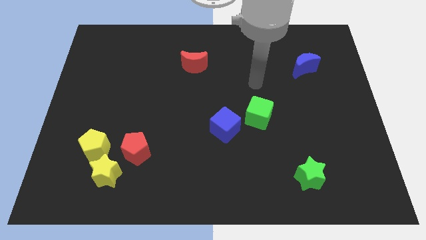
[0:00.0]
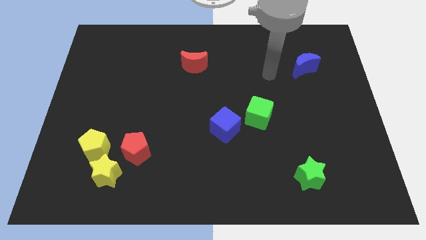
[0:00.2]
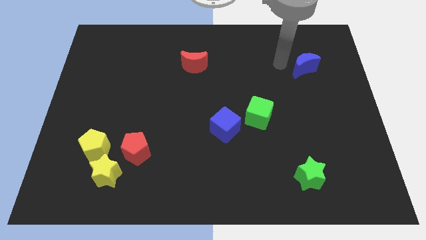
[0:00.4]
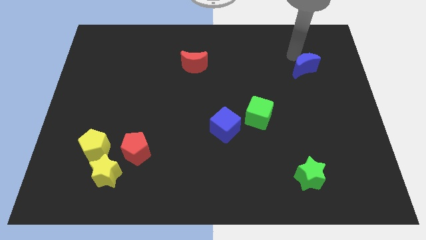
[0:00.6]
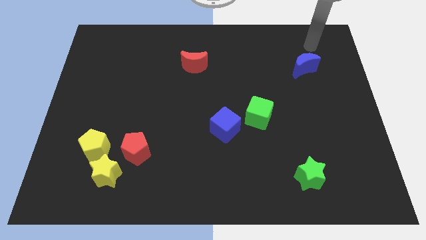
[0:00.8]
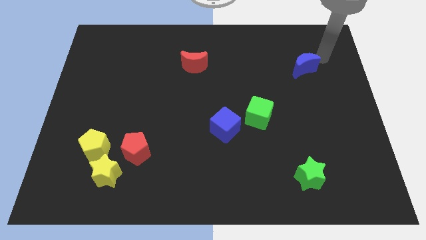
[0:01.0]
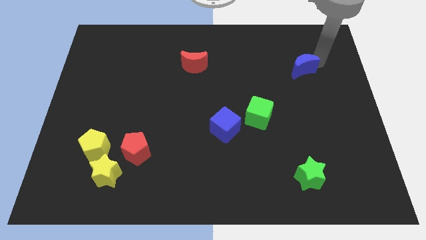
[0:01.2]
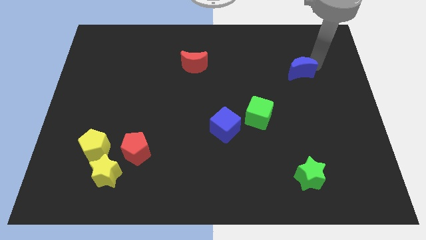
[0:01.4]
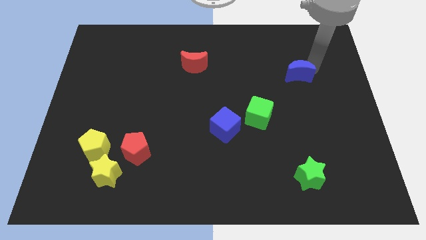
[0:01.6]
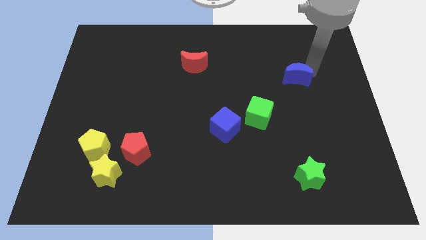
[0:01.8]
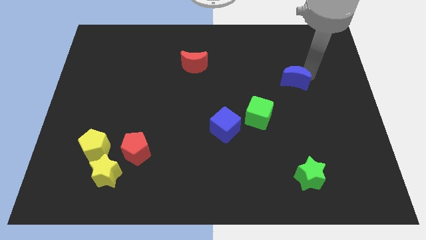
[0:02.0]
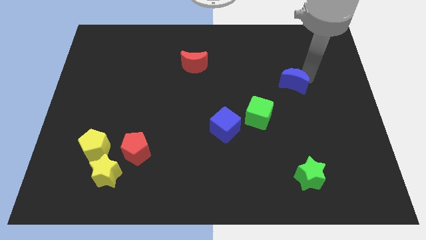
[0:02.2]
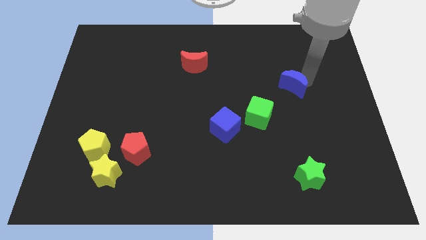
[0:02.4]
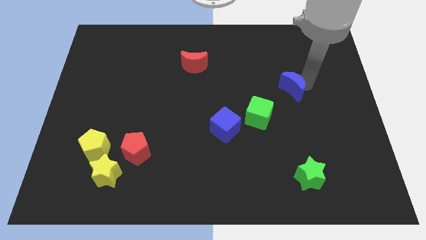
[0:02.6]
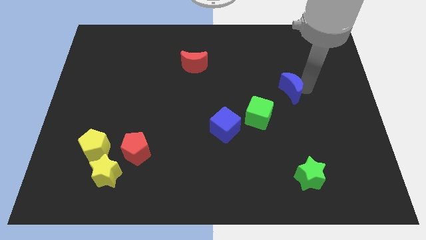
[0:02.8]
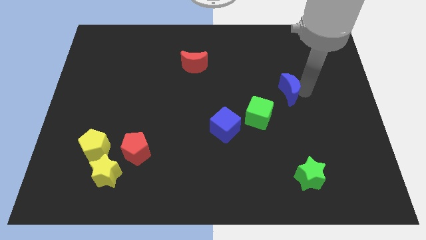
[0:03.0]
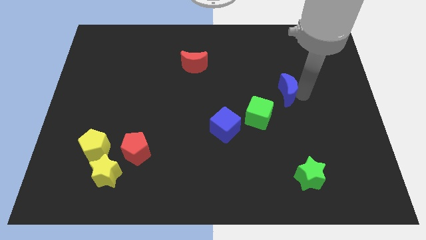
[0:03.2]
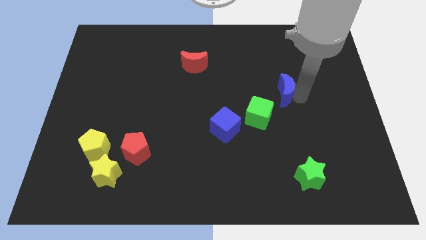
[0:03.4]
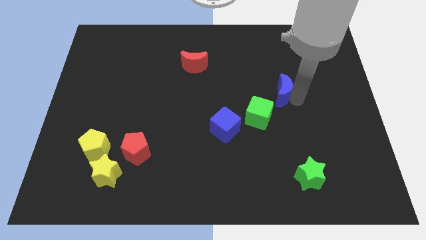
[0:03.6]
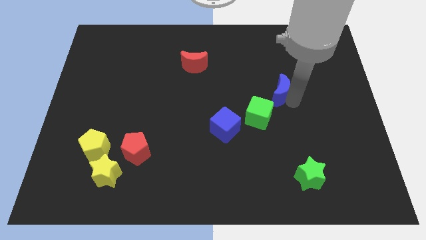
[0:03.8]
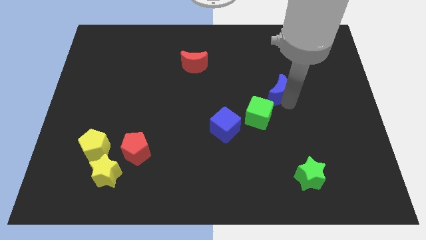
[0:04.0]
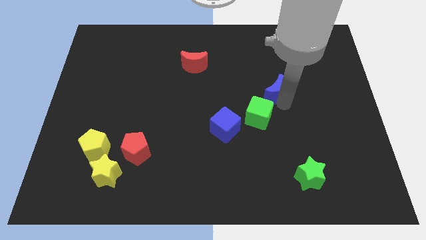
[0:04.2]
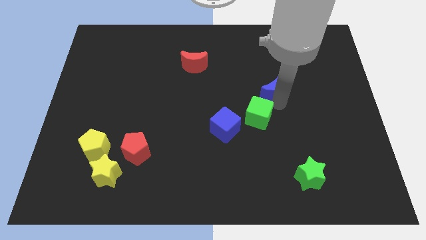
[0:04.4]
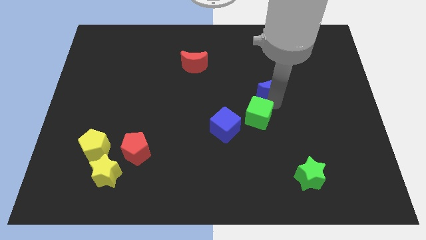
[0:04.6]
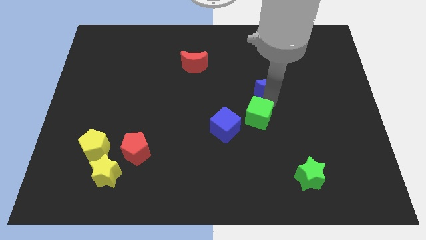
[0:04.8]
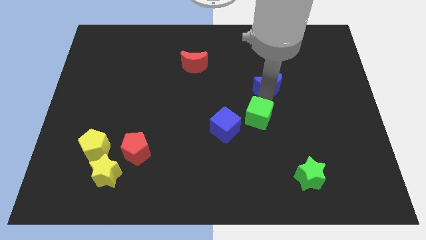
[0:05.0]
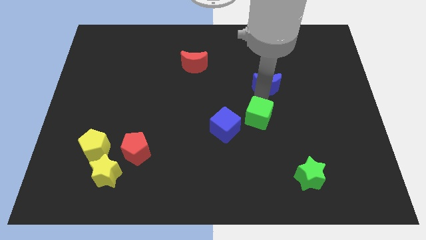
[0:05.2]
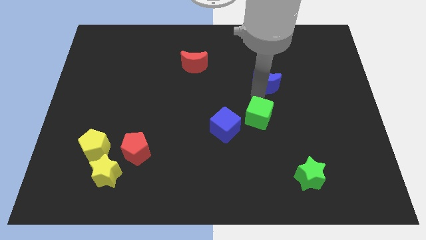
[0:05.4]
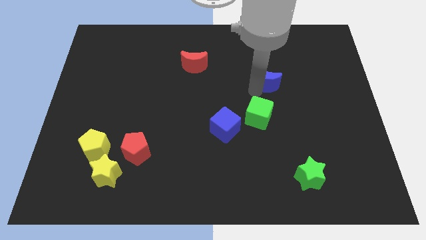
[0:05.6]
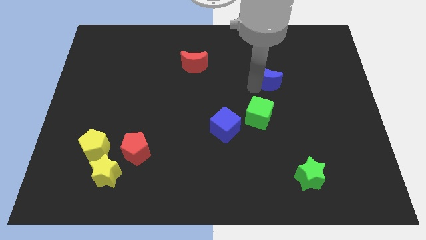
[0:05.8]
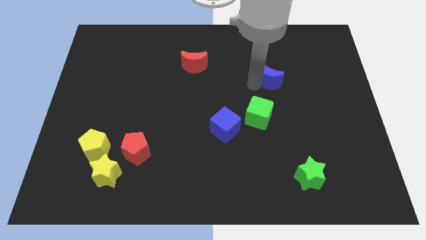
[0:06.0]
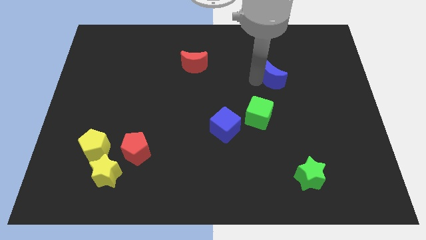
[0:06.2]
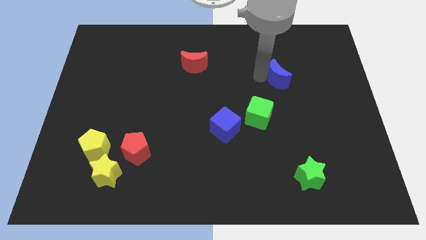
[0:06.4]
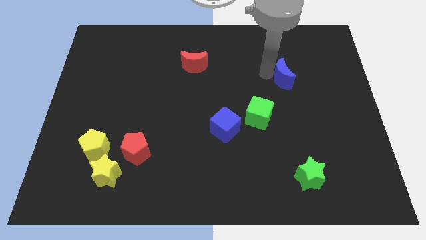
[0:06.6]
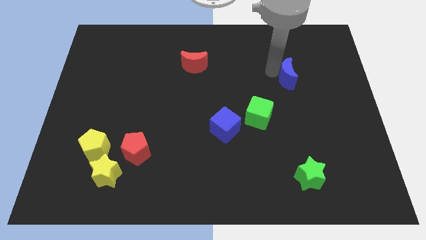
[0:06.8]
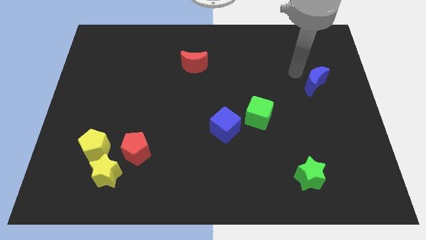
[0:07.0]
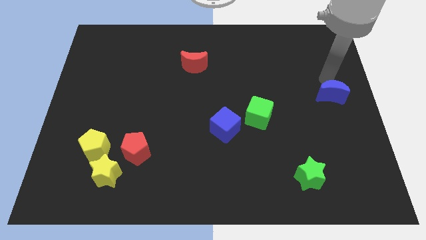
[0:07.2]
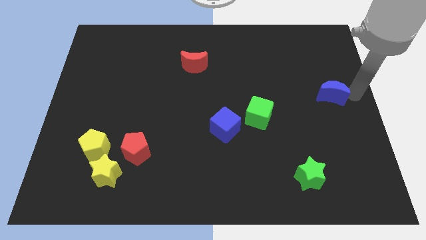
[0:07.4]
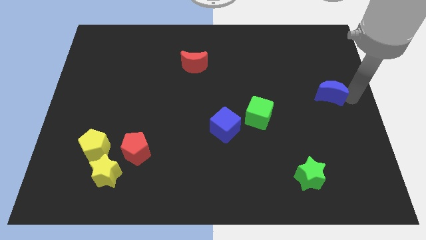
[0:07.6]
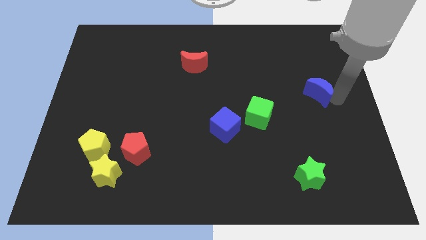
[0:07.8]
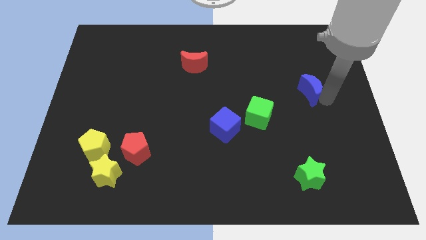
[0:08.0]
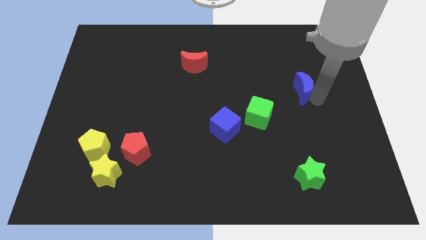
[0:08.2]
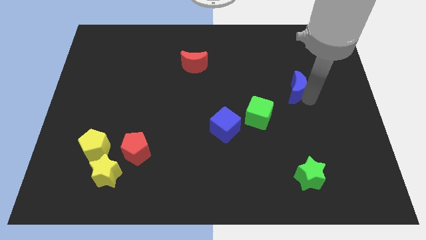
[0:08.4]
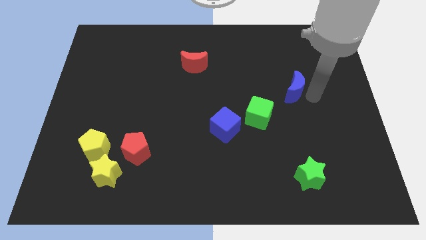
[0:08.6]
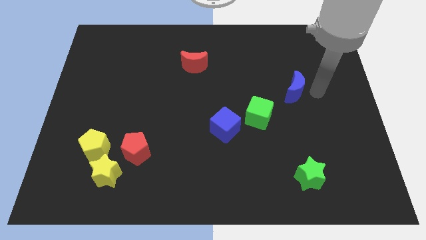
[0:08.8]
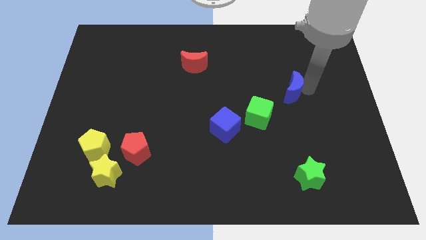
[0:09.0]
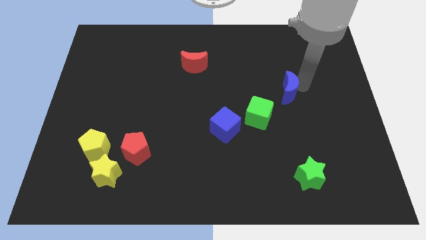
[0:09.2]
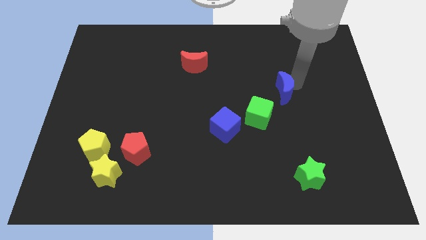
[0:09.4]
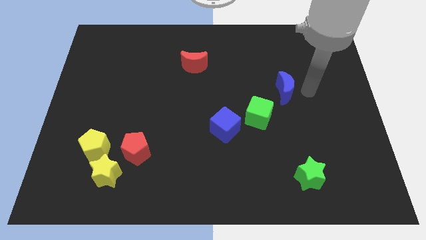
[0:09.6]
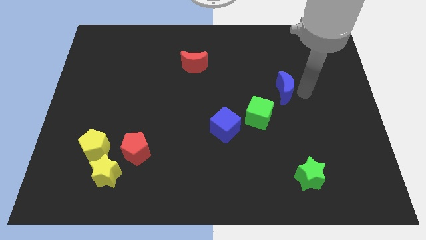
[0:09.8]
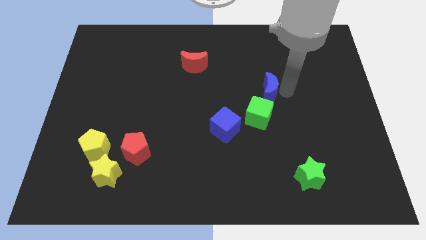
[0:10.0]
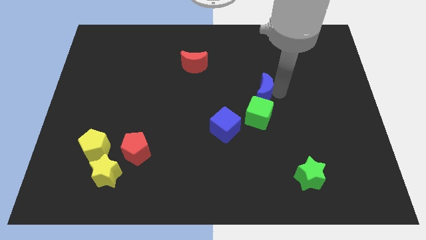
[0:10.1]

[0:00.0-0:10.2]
push the blue moon to the center

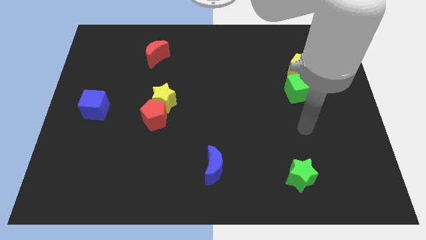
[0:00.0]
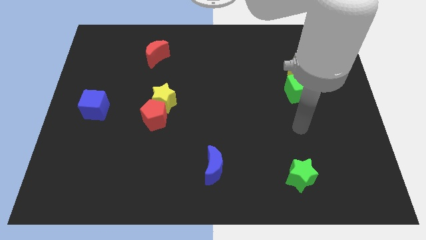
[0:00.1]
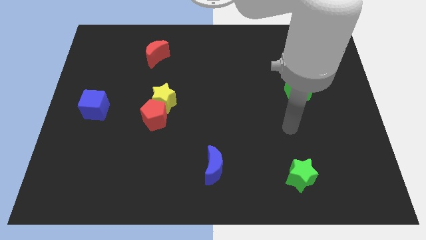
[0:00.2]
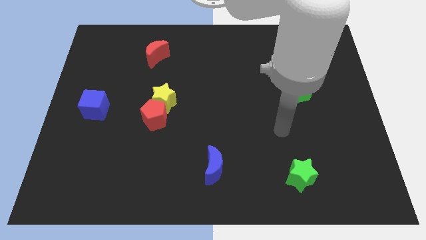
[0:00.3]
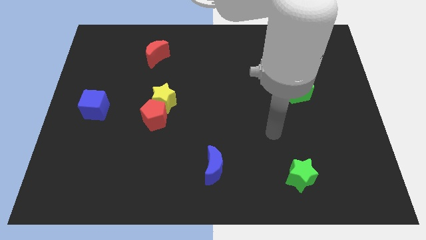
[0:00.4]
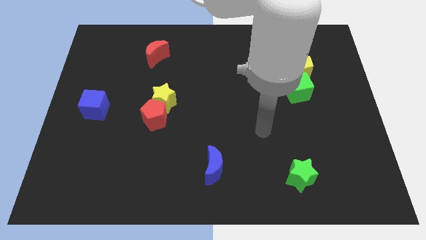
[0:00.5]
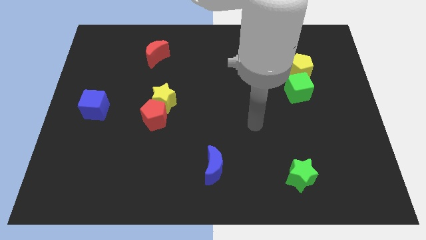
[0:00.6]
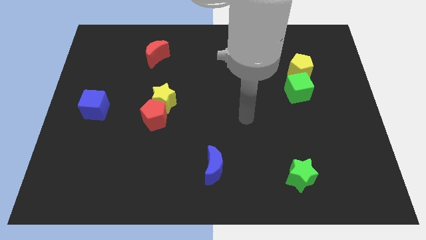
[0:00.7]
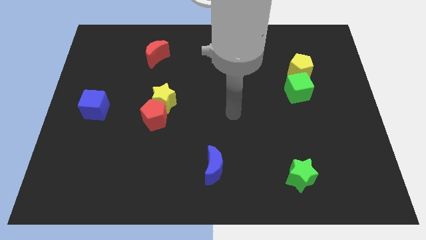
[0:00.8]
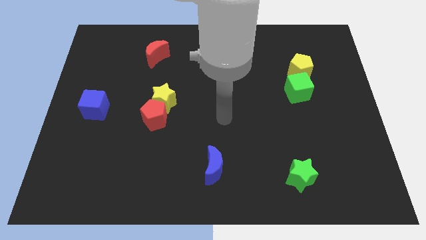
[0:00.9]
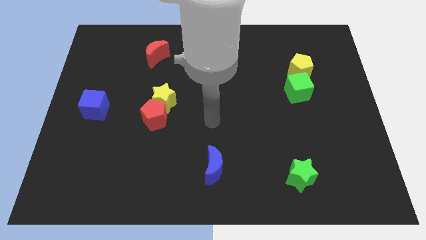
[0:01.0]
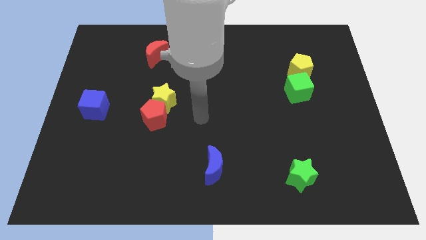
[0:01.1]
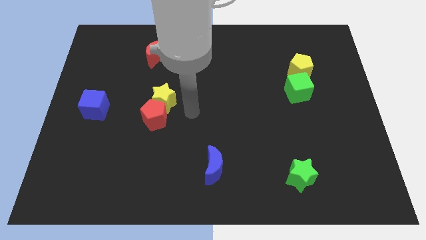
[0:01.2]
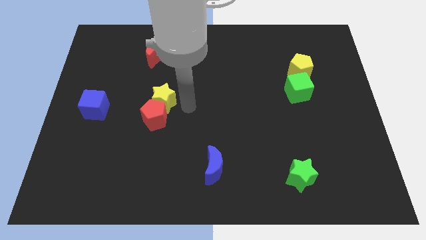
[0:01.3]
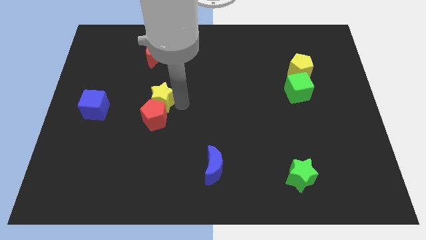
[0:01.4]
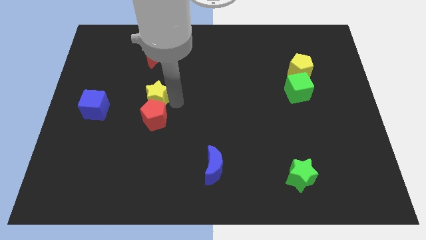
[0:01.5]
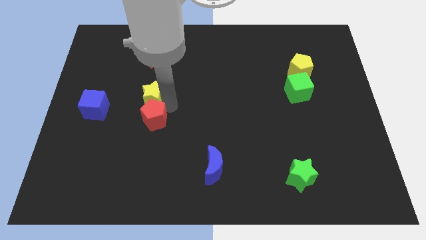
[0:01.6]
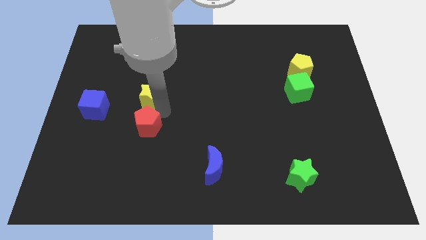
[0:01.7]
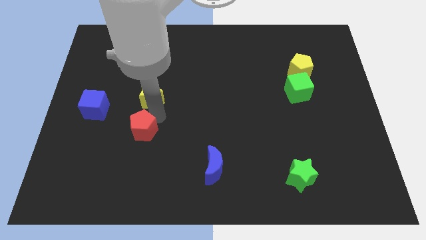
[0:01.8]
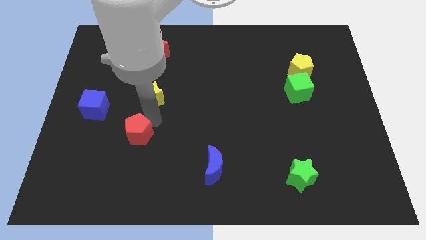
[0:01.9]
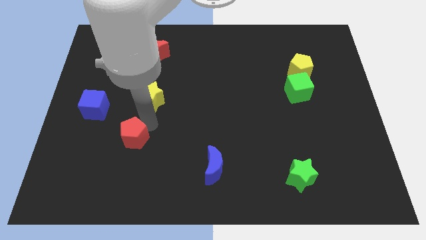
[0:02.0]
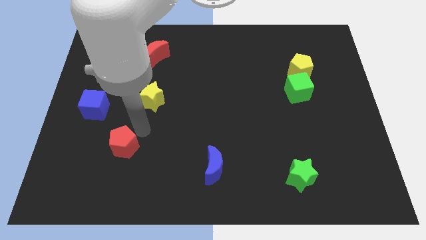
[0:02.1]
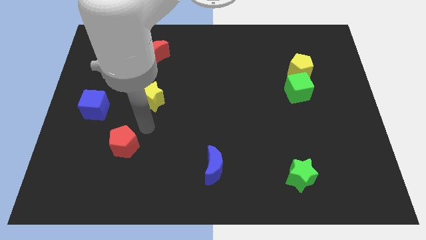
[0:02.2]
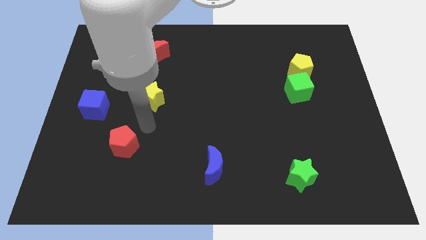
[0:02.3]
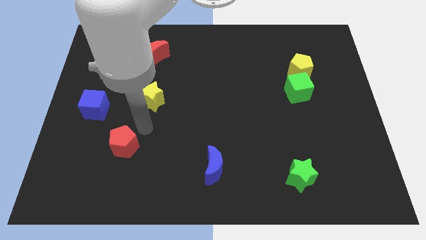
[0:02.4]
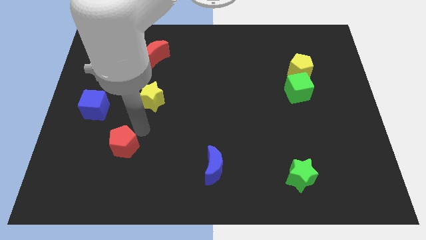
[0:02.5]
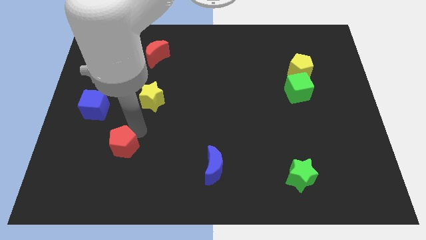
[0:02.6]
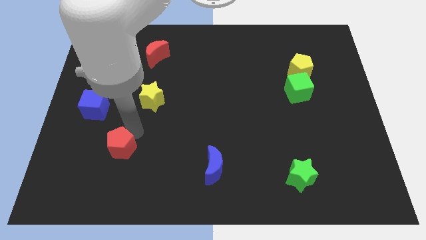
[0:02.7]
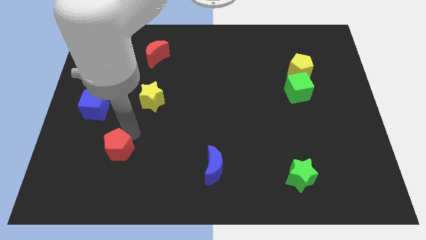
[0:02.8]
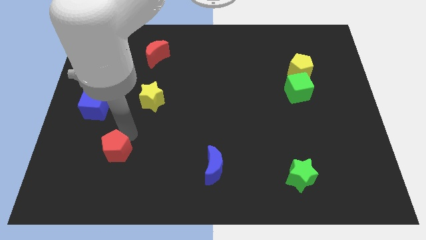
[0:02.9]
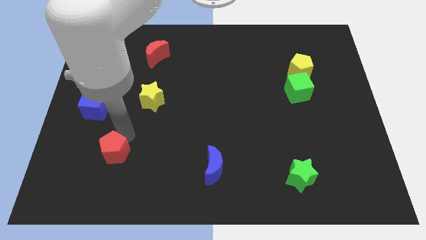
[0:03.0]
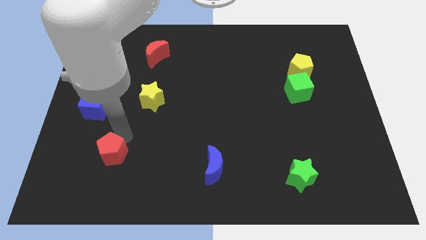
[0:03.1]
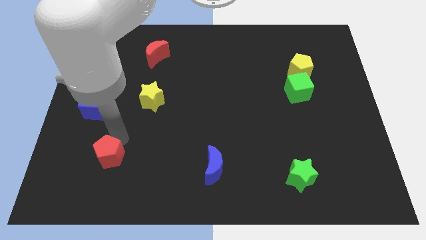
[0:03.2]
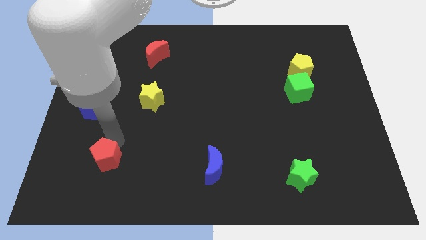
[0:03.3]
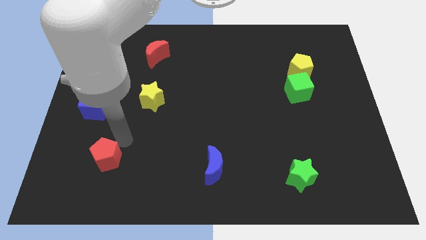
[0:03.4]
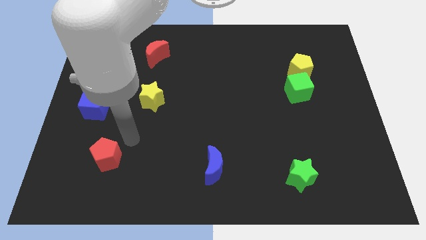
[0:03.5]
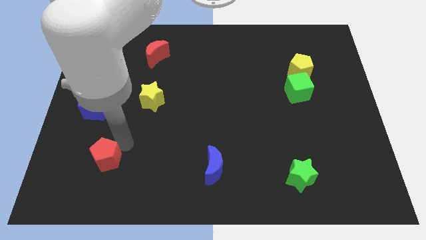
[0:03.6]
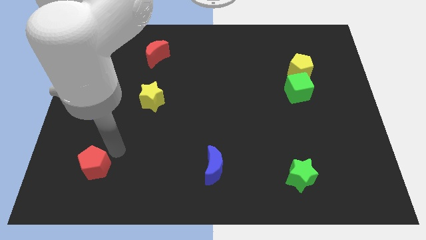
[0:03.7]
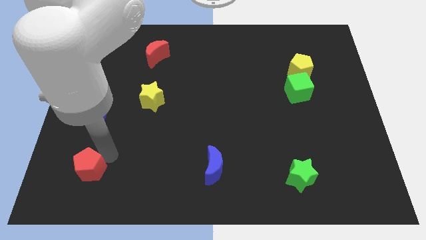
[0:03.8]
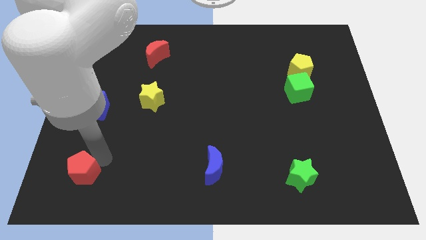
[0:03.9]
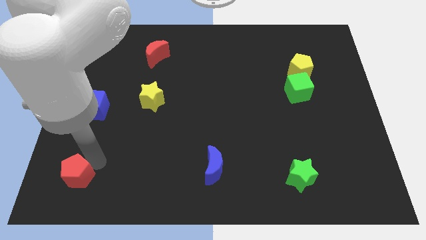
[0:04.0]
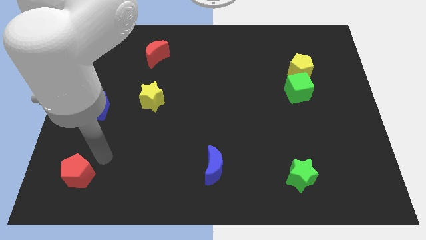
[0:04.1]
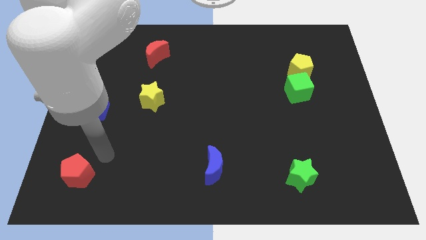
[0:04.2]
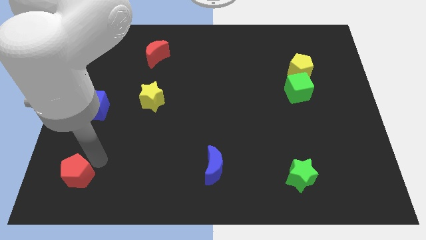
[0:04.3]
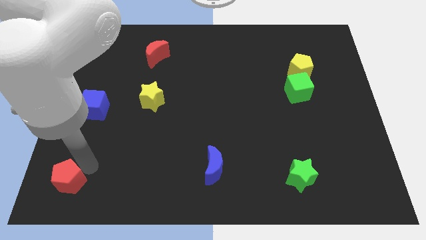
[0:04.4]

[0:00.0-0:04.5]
push the red pentagon to the bottom left
